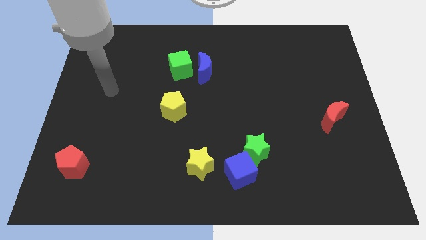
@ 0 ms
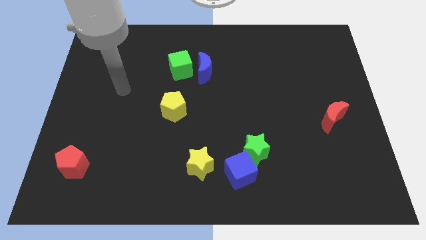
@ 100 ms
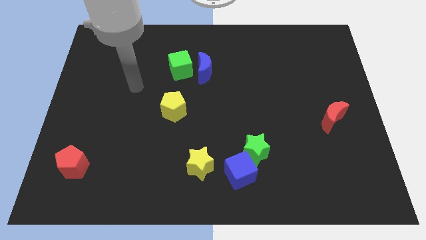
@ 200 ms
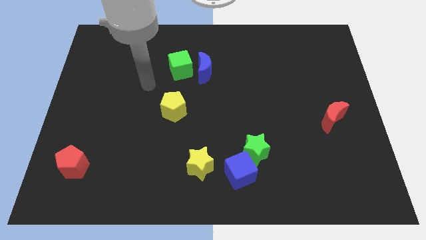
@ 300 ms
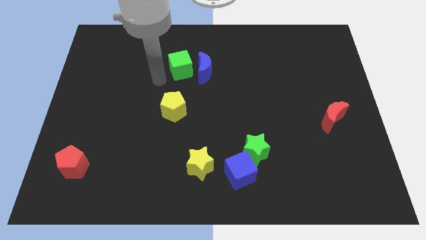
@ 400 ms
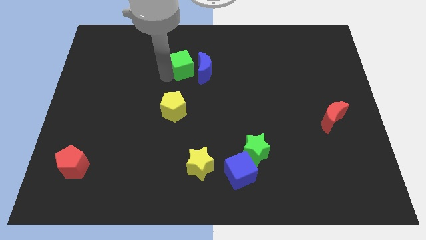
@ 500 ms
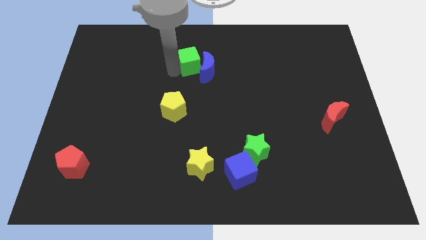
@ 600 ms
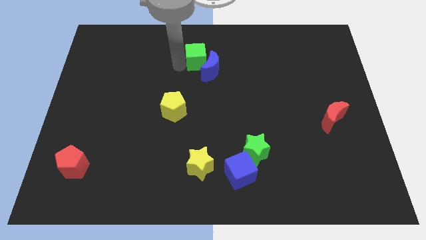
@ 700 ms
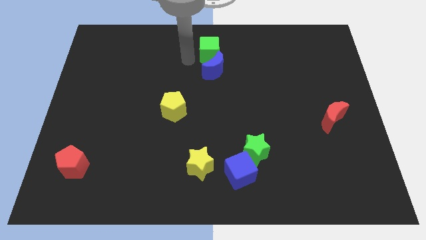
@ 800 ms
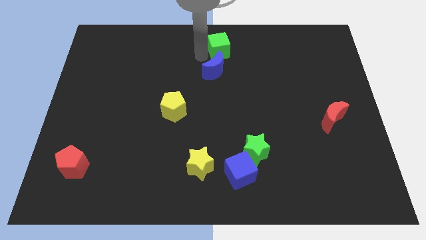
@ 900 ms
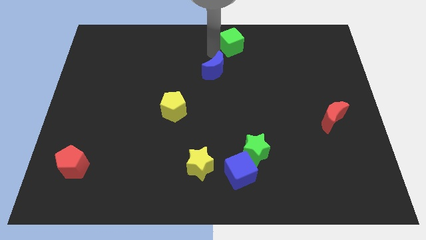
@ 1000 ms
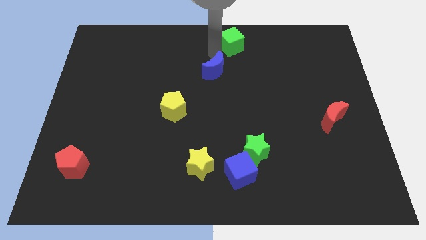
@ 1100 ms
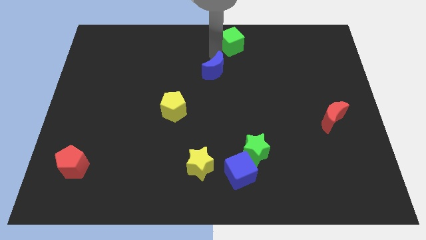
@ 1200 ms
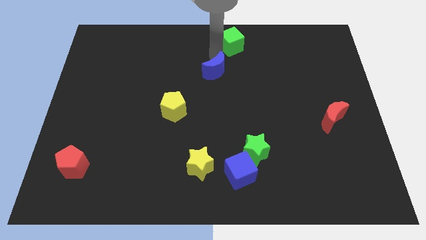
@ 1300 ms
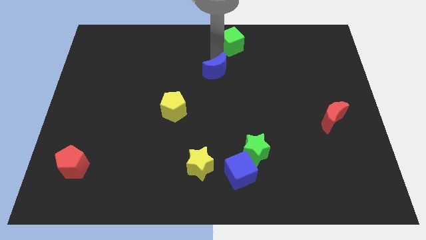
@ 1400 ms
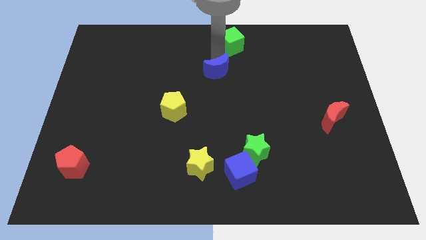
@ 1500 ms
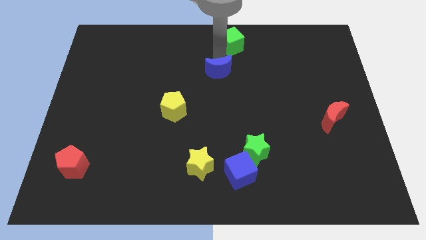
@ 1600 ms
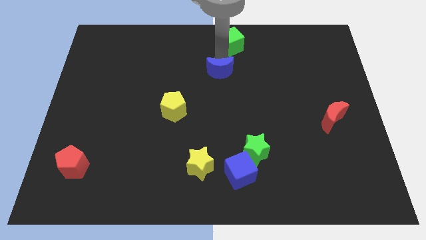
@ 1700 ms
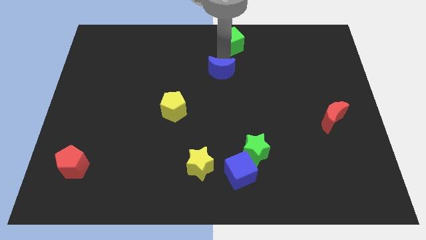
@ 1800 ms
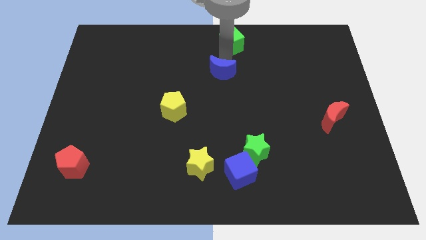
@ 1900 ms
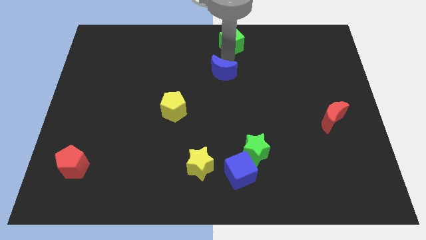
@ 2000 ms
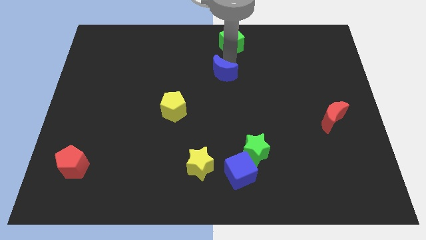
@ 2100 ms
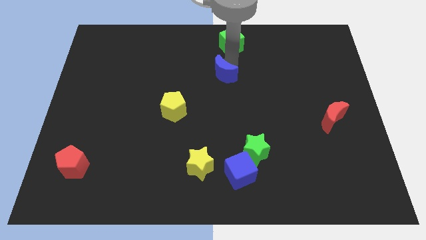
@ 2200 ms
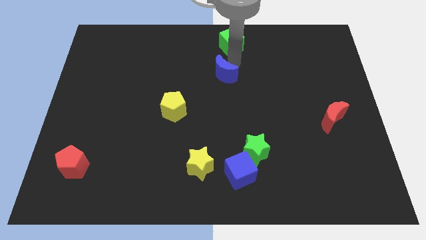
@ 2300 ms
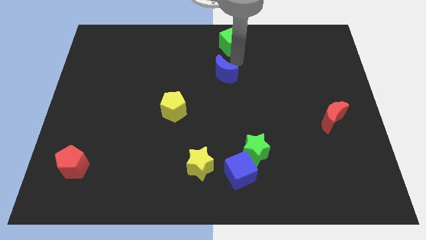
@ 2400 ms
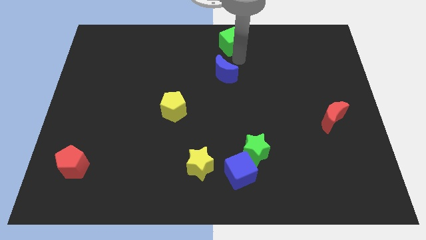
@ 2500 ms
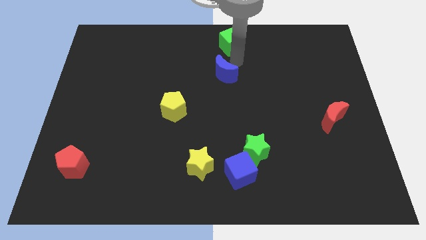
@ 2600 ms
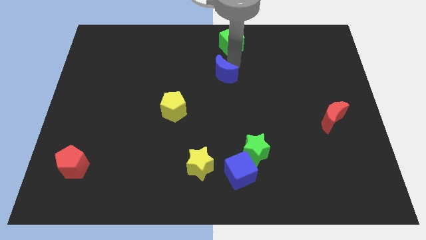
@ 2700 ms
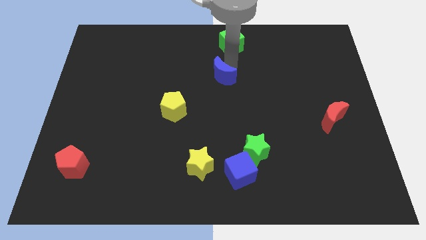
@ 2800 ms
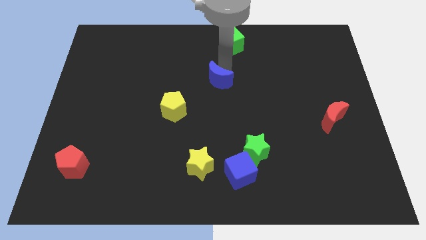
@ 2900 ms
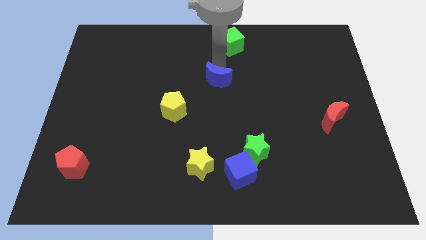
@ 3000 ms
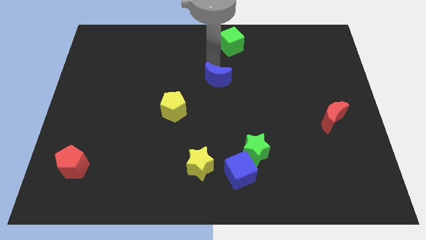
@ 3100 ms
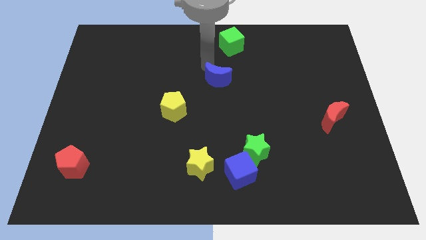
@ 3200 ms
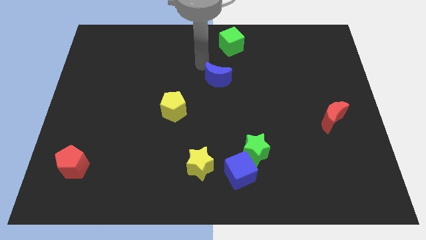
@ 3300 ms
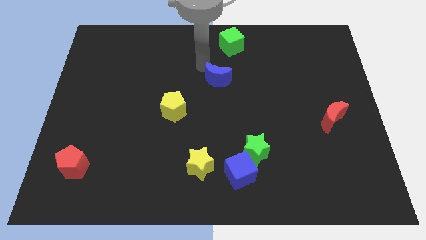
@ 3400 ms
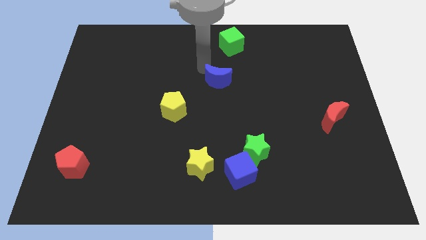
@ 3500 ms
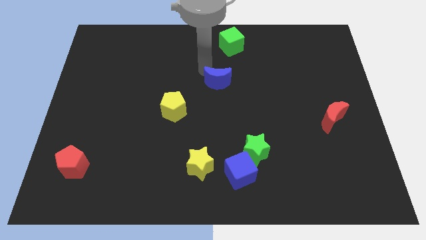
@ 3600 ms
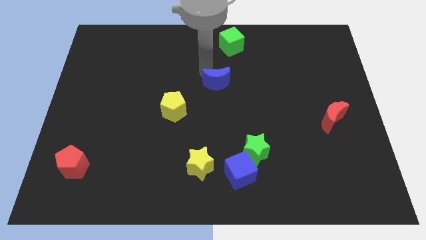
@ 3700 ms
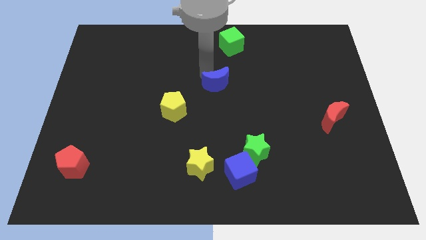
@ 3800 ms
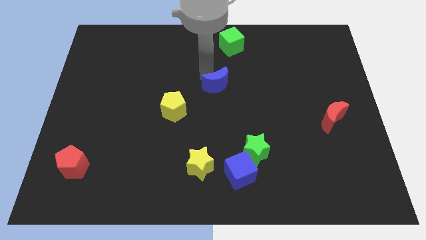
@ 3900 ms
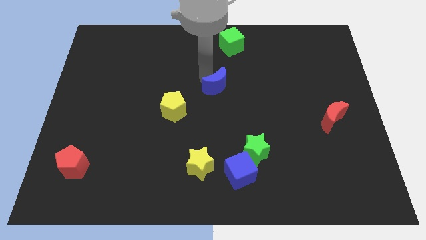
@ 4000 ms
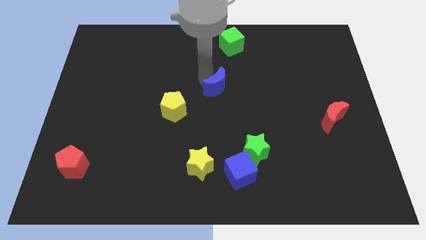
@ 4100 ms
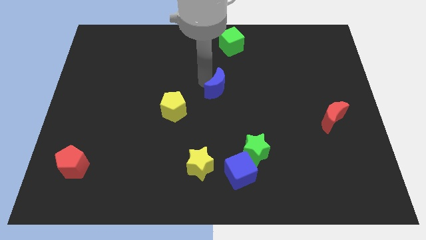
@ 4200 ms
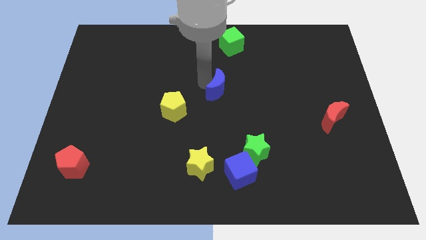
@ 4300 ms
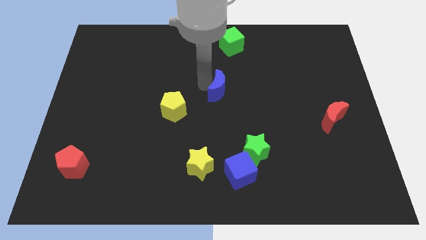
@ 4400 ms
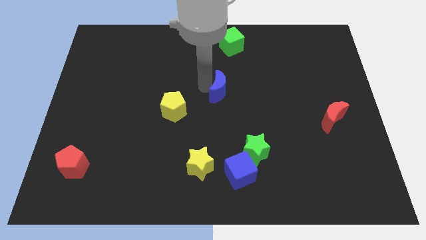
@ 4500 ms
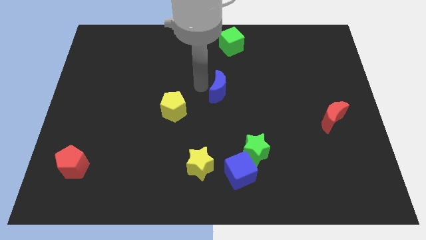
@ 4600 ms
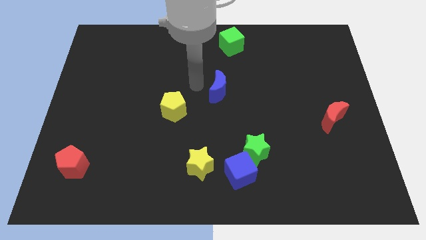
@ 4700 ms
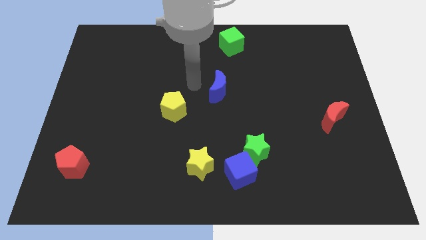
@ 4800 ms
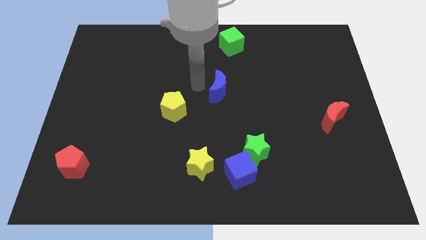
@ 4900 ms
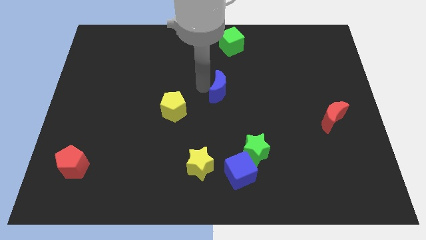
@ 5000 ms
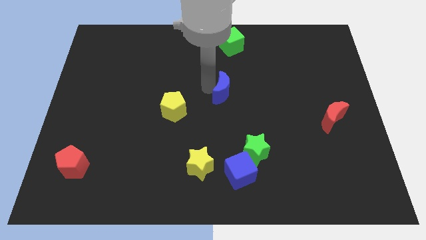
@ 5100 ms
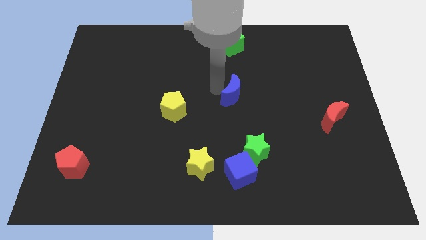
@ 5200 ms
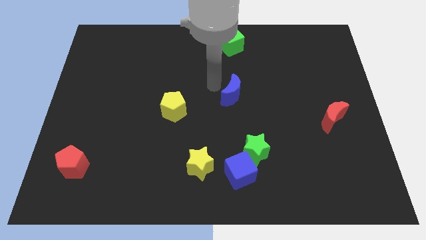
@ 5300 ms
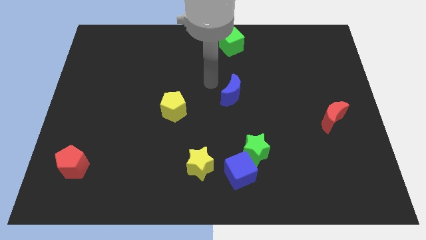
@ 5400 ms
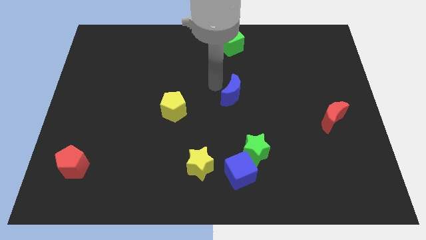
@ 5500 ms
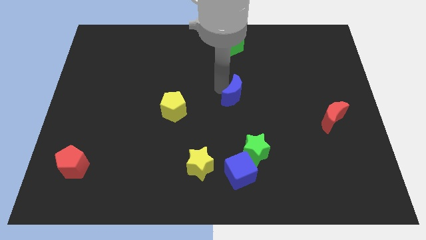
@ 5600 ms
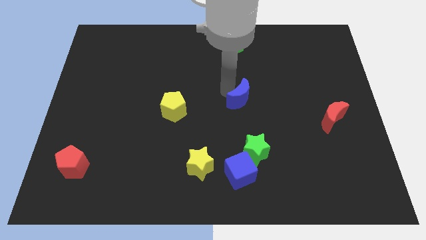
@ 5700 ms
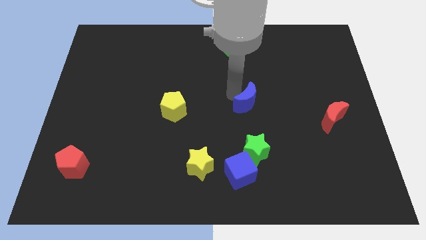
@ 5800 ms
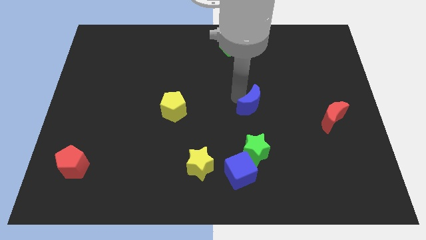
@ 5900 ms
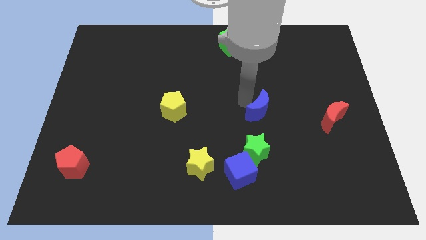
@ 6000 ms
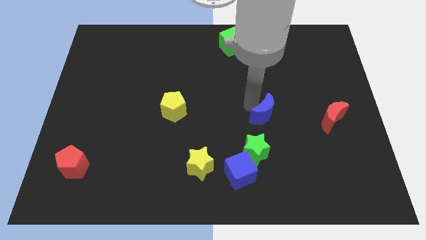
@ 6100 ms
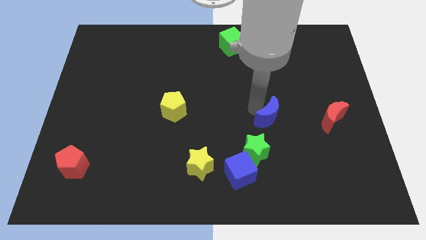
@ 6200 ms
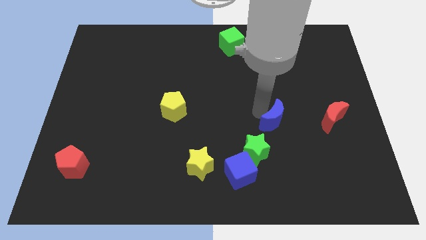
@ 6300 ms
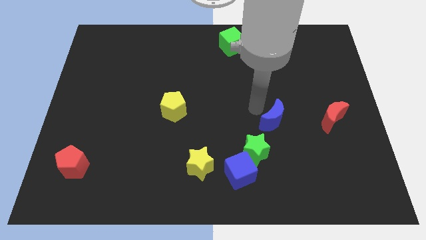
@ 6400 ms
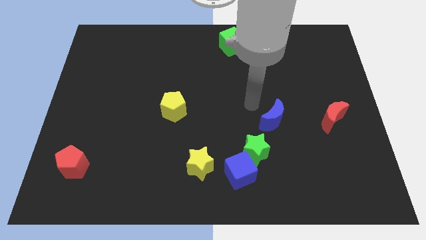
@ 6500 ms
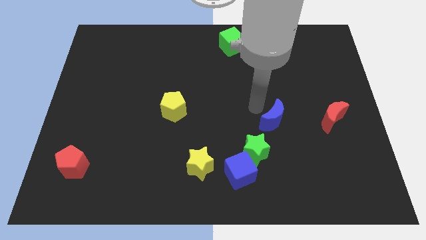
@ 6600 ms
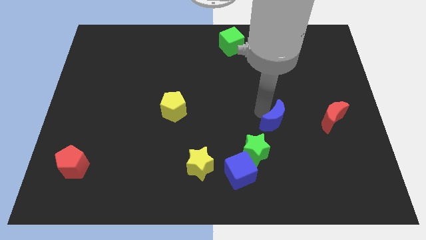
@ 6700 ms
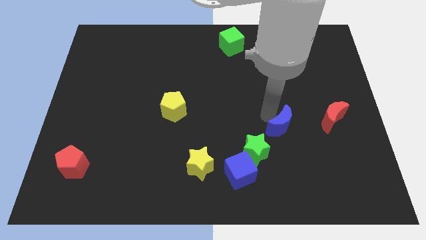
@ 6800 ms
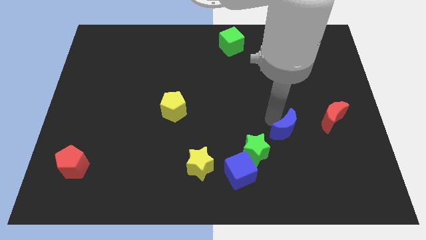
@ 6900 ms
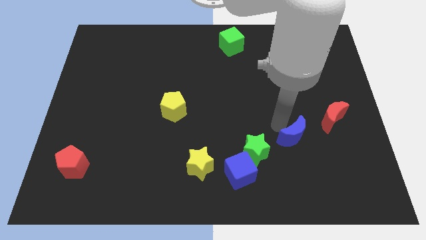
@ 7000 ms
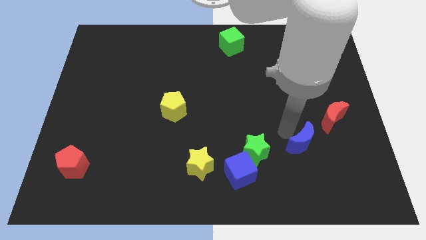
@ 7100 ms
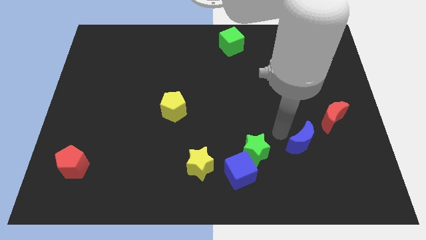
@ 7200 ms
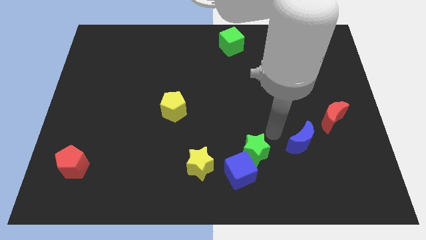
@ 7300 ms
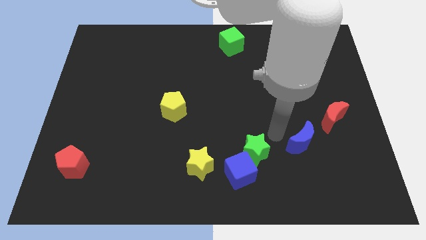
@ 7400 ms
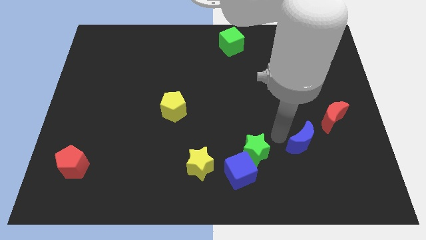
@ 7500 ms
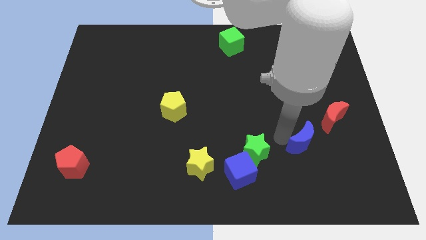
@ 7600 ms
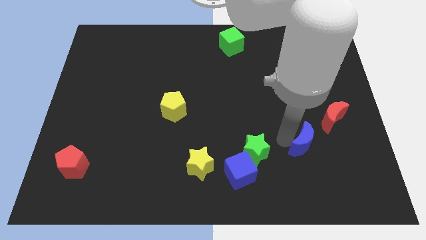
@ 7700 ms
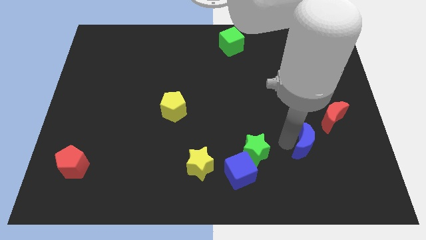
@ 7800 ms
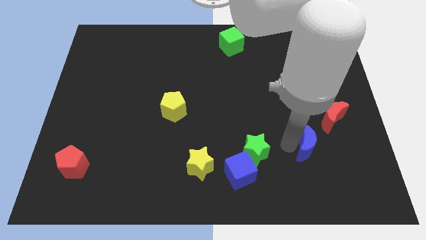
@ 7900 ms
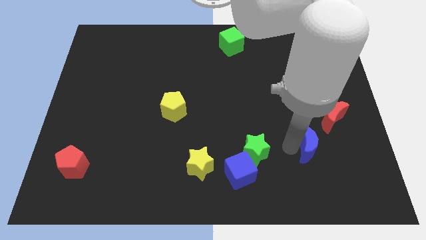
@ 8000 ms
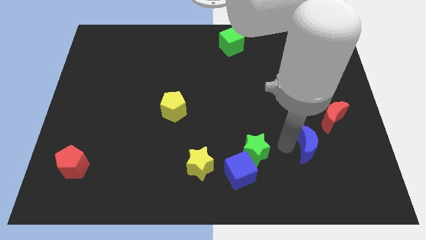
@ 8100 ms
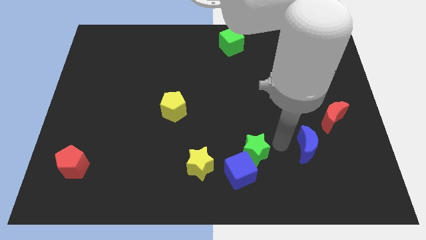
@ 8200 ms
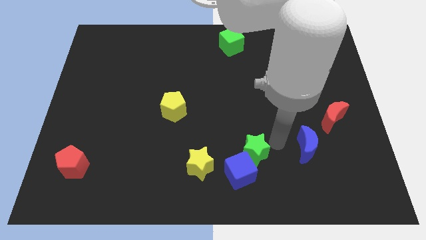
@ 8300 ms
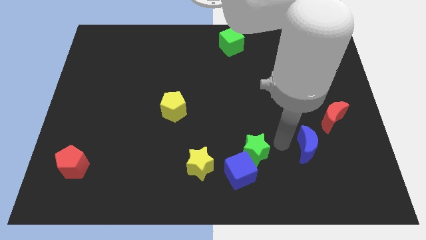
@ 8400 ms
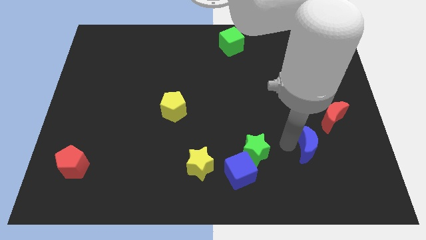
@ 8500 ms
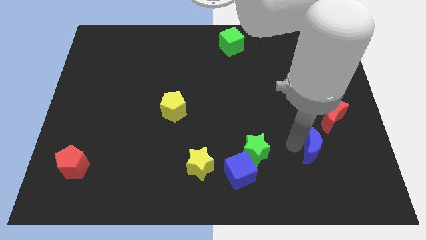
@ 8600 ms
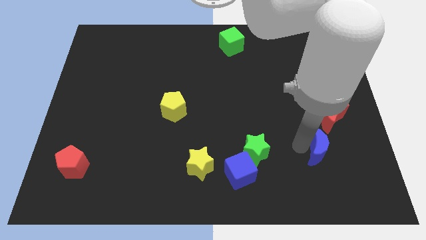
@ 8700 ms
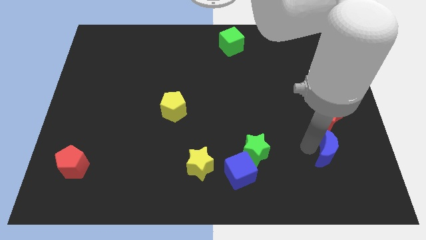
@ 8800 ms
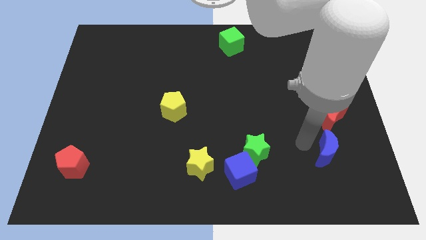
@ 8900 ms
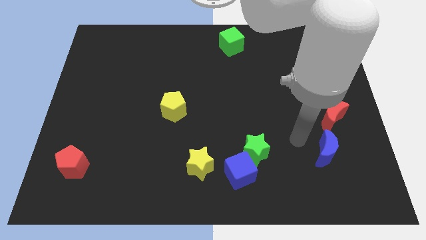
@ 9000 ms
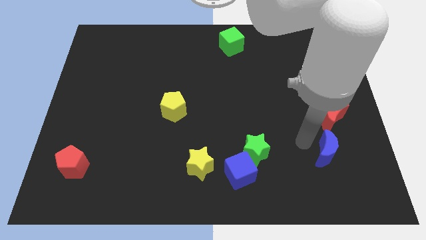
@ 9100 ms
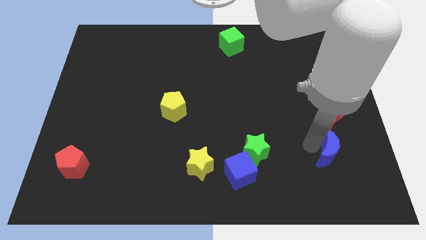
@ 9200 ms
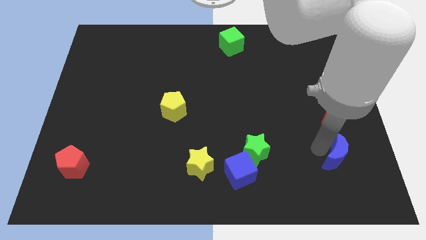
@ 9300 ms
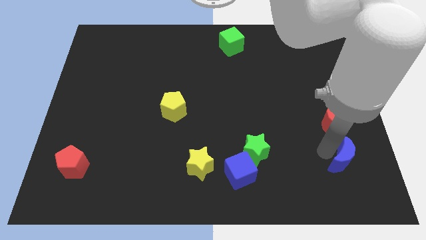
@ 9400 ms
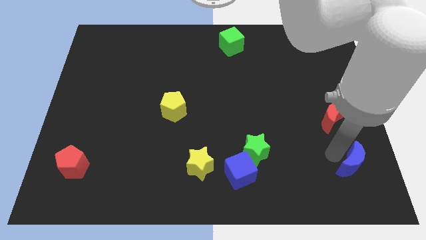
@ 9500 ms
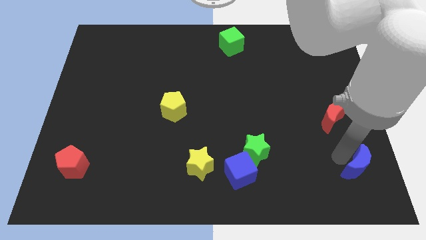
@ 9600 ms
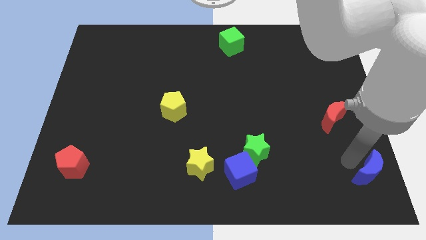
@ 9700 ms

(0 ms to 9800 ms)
put the blue moon to the bottom right corner
